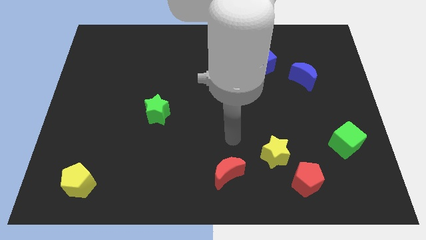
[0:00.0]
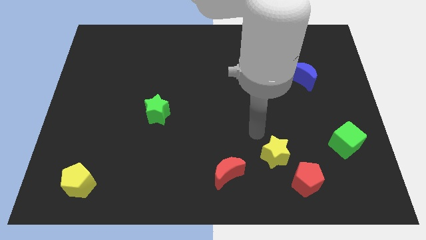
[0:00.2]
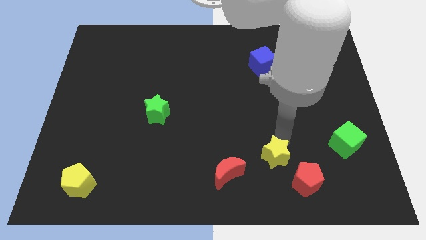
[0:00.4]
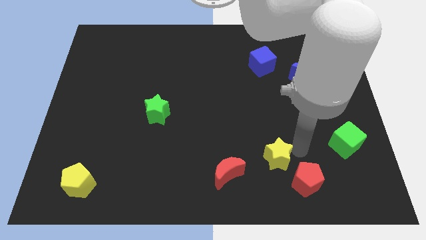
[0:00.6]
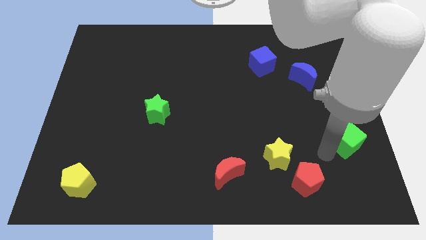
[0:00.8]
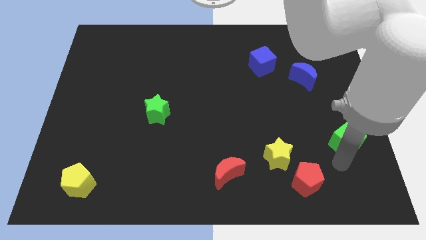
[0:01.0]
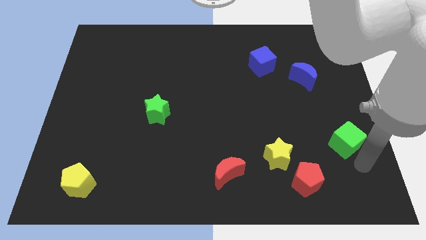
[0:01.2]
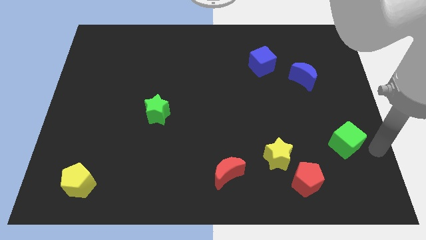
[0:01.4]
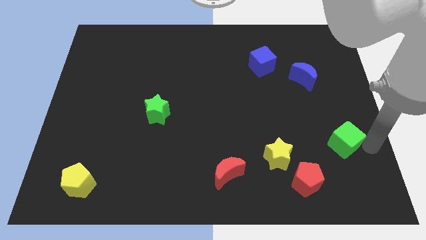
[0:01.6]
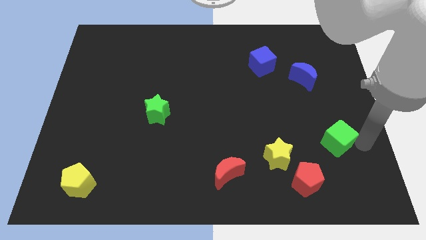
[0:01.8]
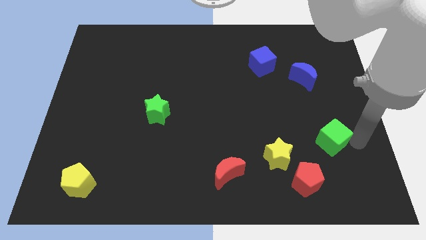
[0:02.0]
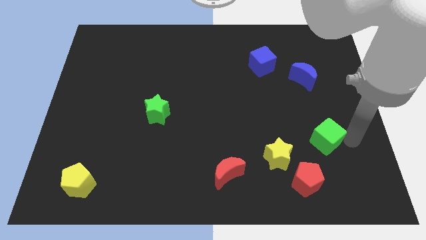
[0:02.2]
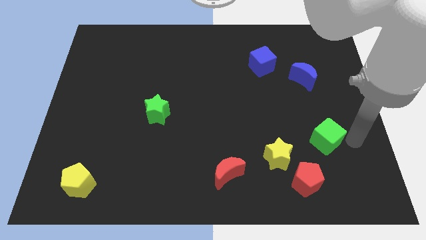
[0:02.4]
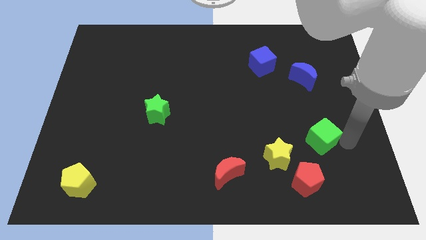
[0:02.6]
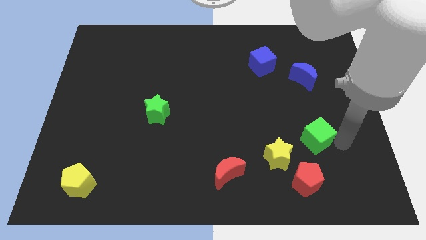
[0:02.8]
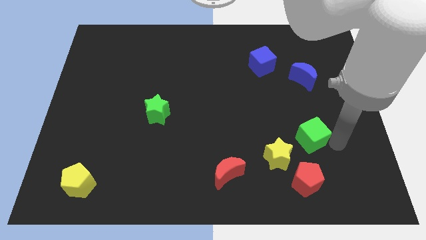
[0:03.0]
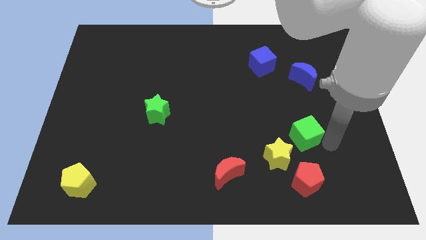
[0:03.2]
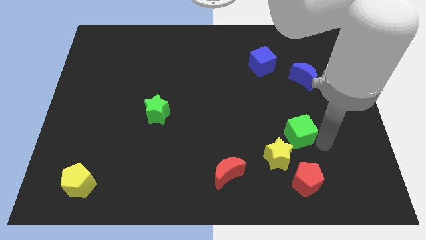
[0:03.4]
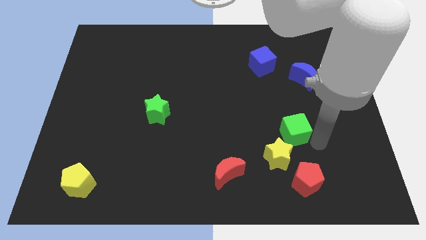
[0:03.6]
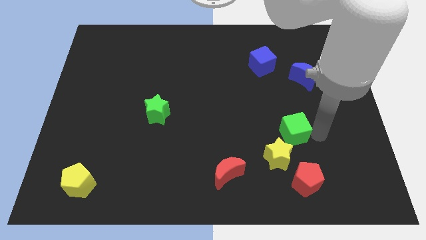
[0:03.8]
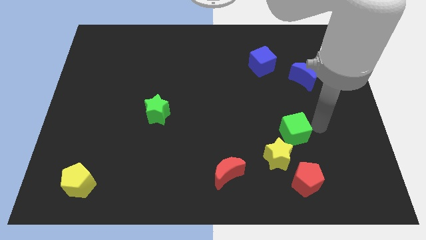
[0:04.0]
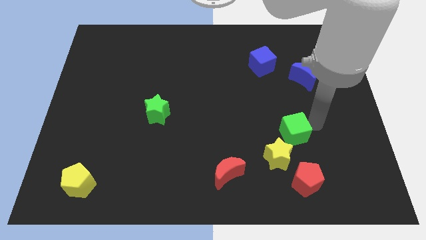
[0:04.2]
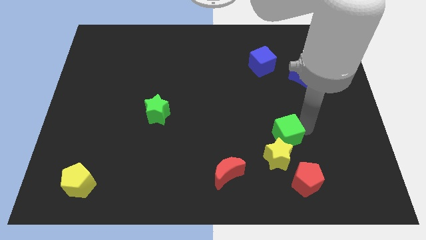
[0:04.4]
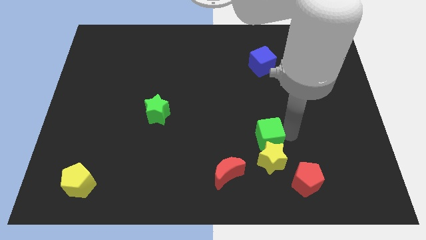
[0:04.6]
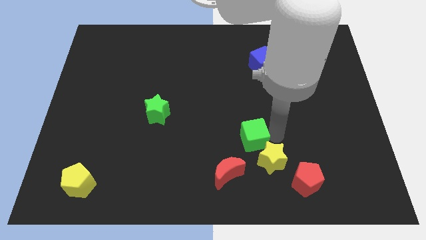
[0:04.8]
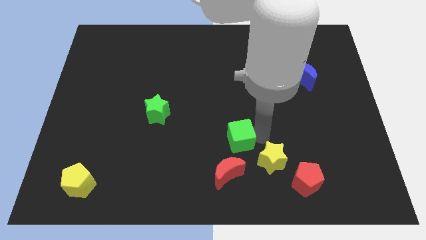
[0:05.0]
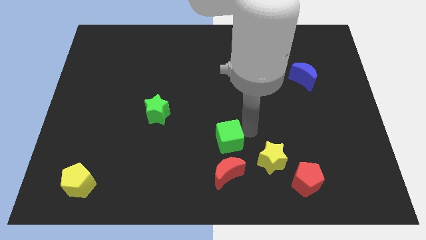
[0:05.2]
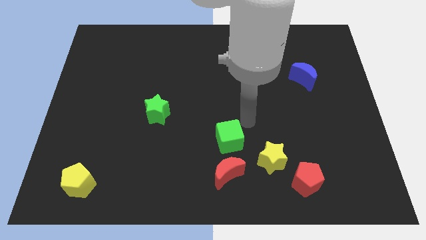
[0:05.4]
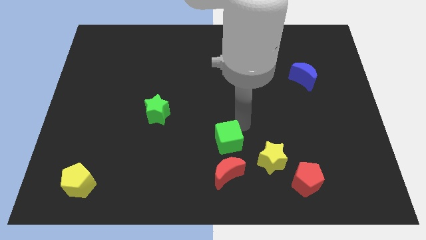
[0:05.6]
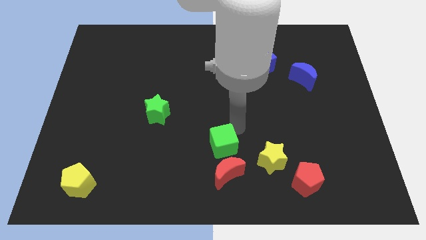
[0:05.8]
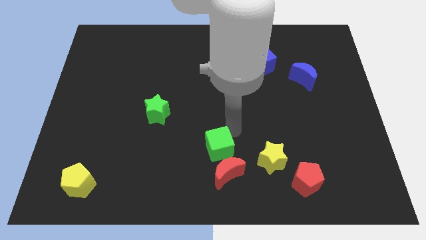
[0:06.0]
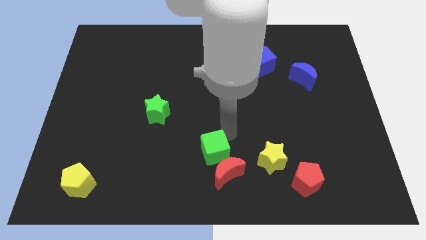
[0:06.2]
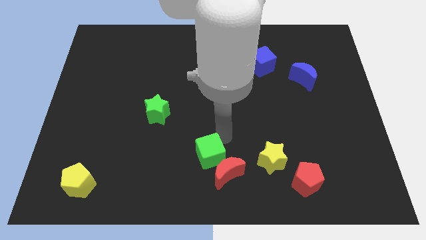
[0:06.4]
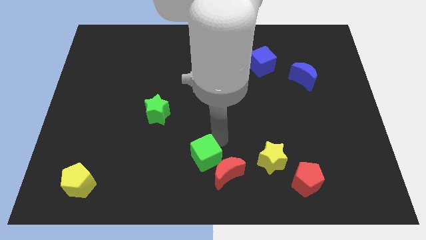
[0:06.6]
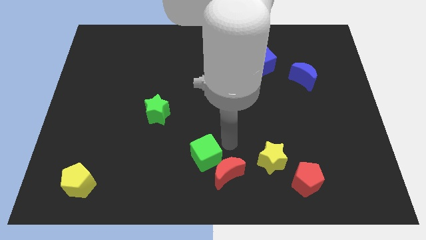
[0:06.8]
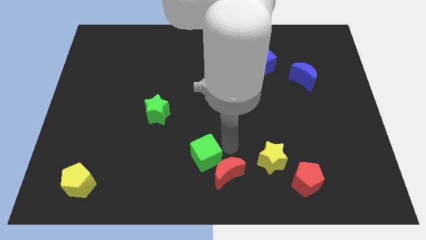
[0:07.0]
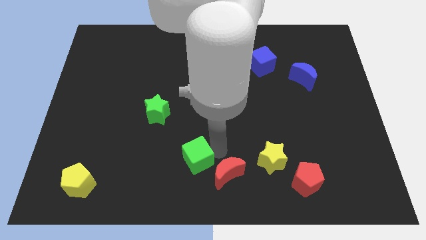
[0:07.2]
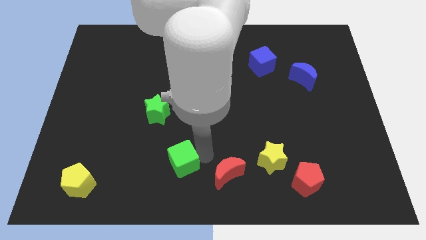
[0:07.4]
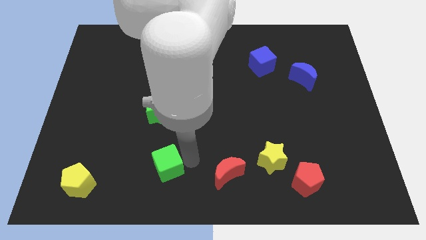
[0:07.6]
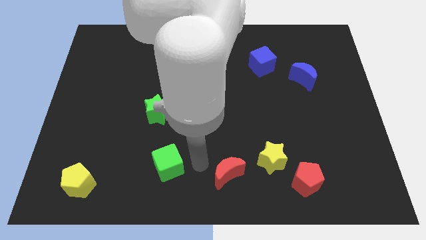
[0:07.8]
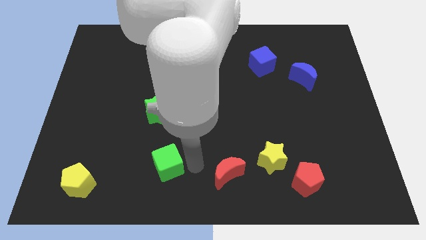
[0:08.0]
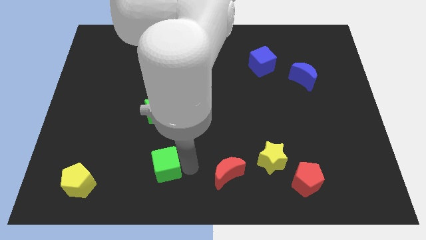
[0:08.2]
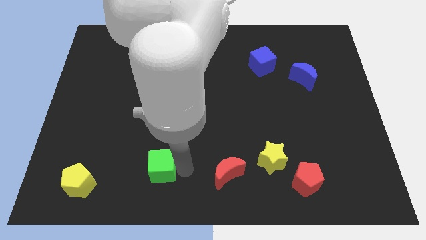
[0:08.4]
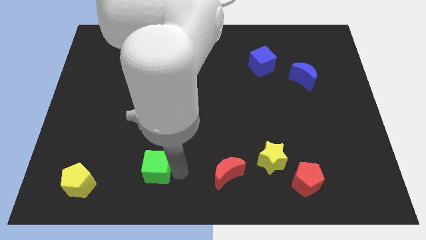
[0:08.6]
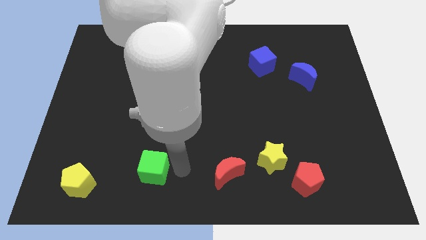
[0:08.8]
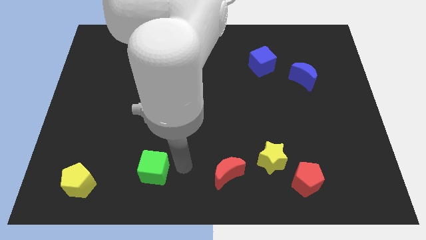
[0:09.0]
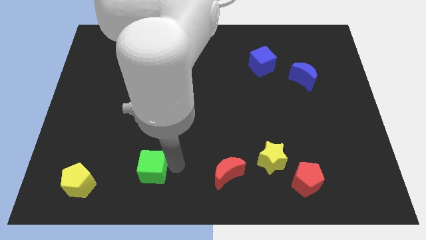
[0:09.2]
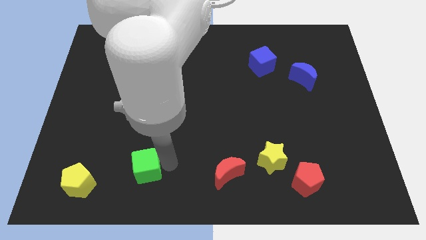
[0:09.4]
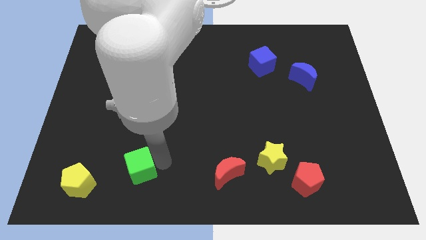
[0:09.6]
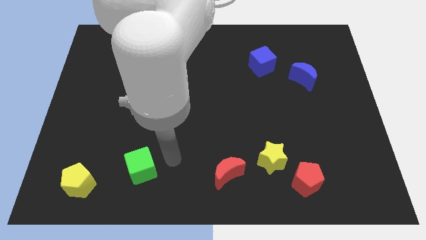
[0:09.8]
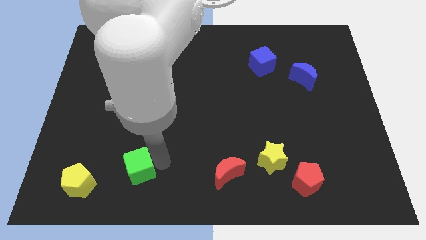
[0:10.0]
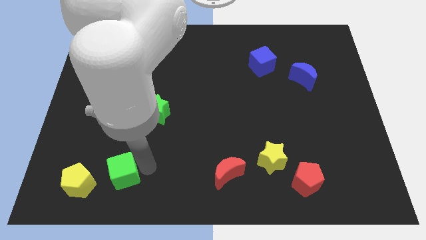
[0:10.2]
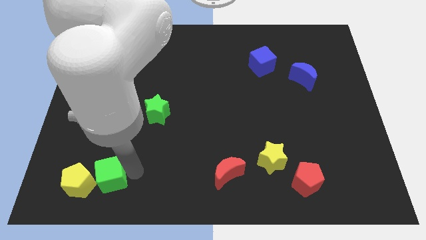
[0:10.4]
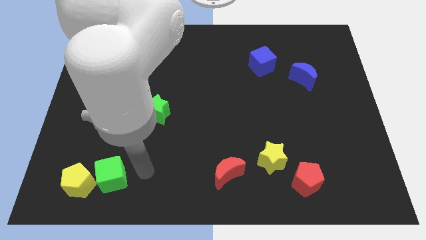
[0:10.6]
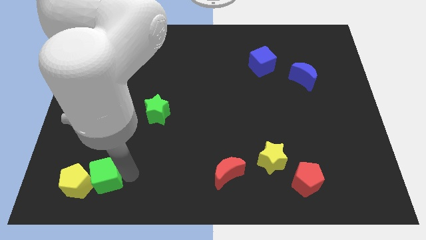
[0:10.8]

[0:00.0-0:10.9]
put the green cube to the yellow pentagon
